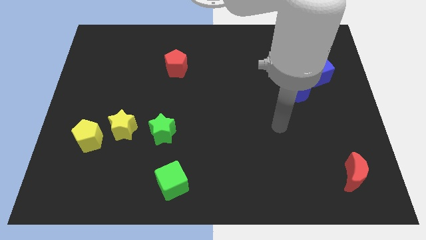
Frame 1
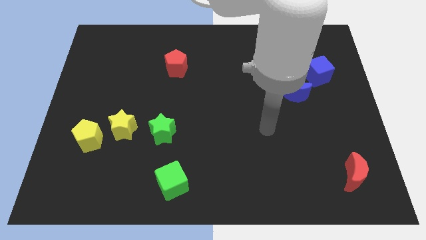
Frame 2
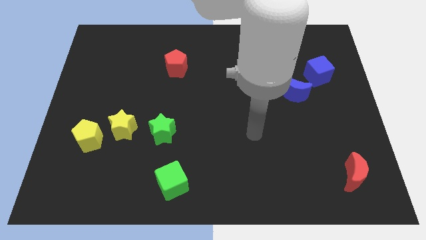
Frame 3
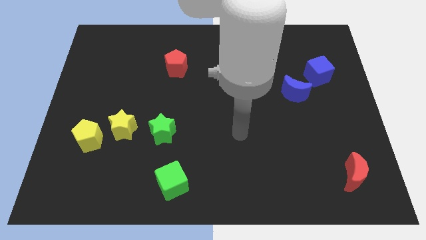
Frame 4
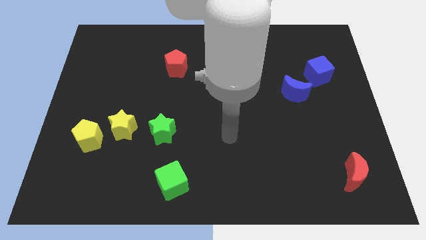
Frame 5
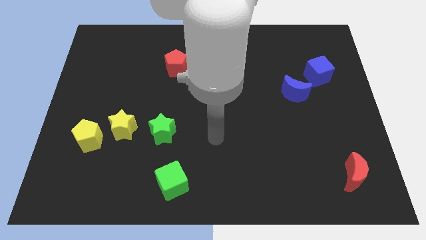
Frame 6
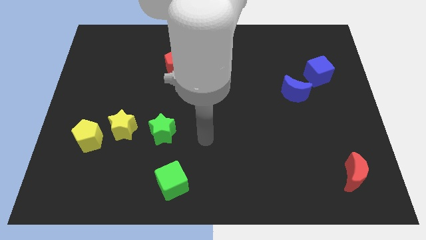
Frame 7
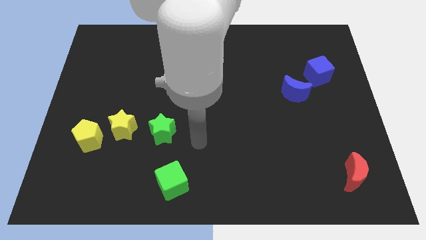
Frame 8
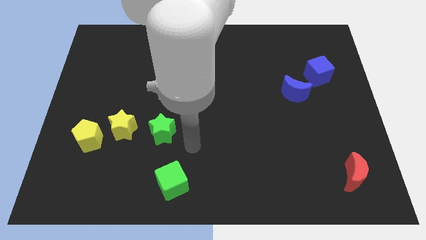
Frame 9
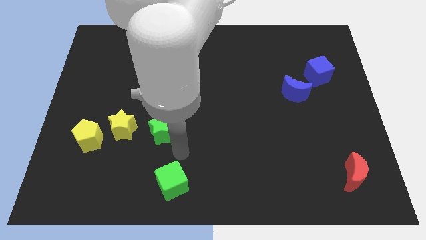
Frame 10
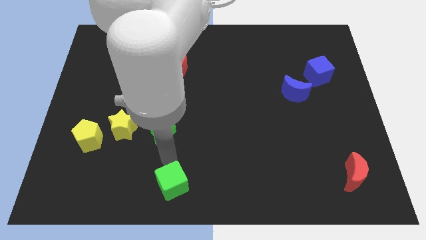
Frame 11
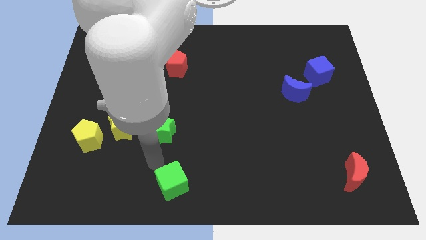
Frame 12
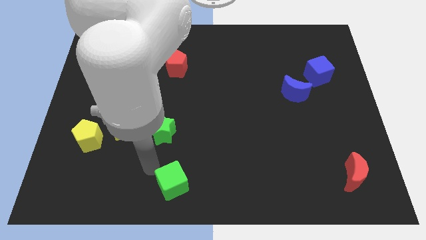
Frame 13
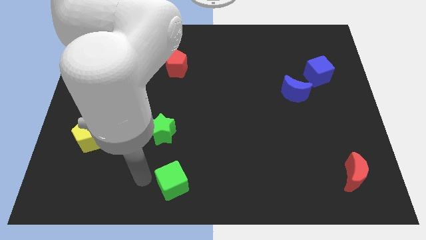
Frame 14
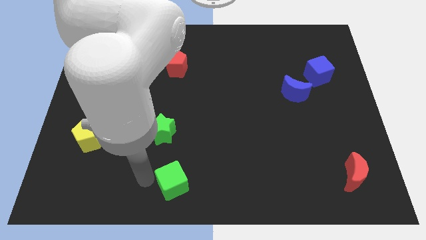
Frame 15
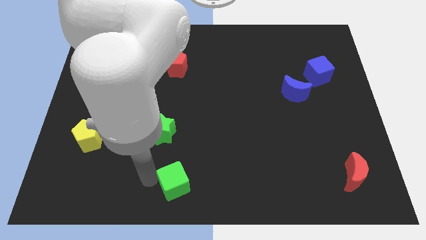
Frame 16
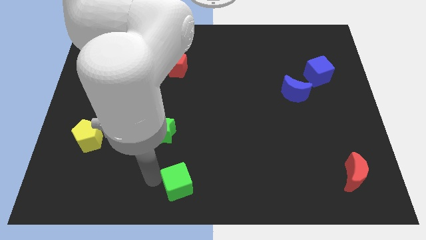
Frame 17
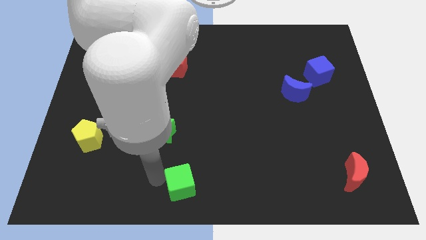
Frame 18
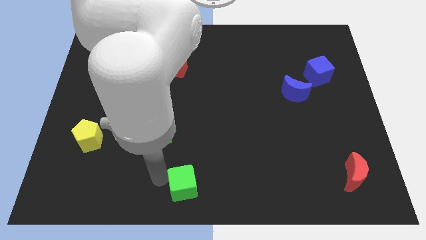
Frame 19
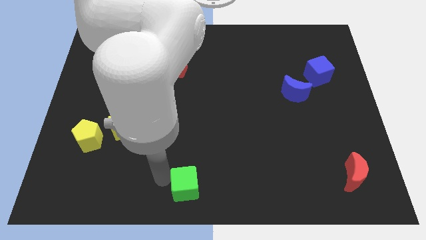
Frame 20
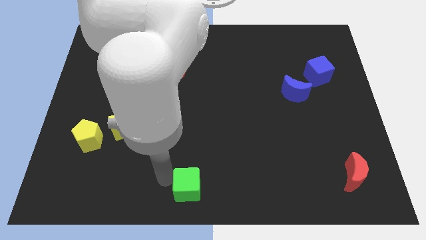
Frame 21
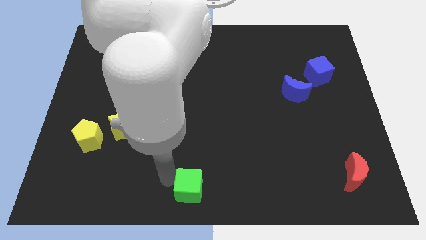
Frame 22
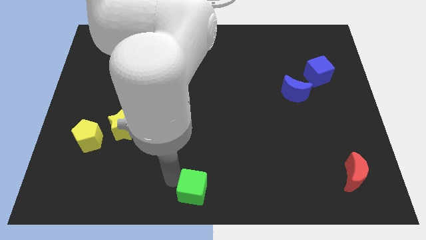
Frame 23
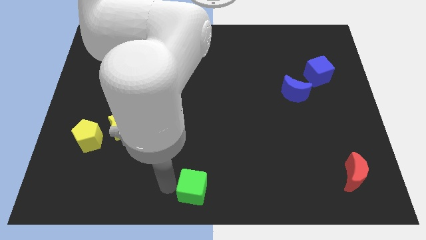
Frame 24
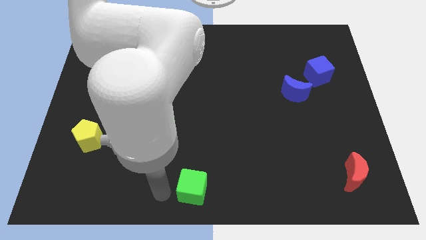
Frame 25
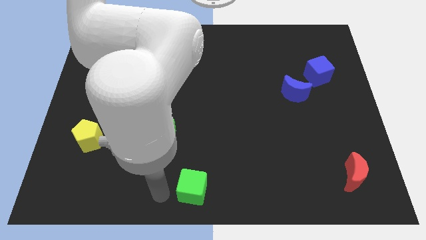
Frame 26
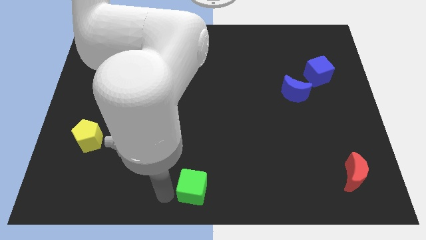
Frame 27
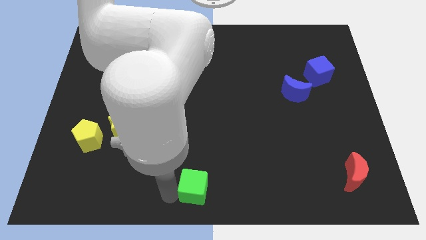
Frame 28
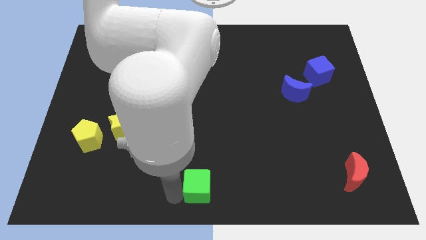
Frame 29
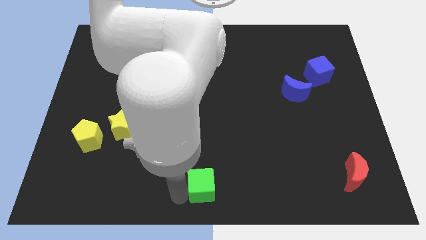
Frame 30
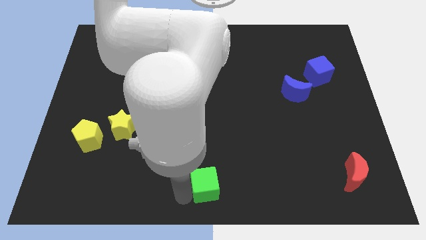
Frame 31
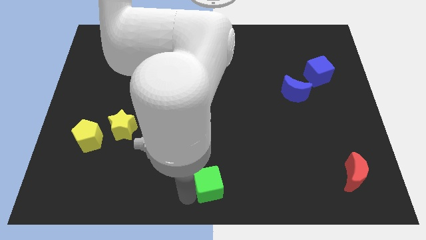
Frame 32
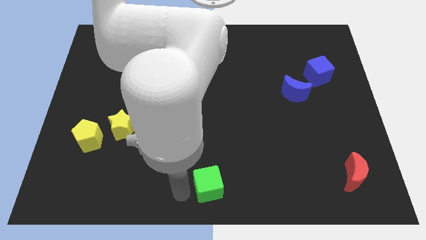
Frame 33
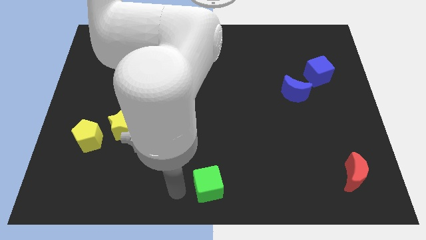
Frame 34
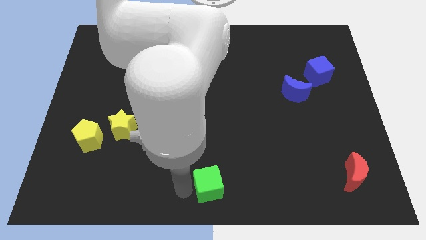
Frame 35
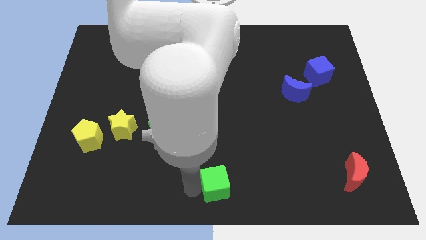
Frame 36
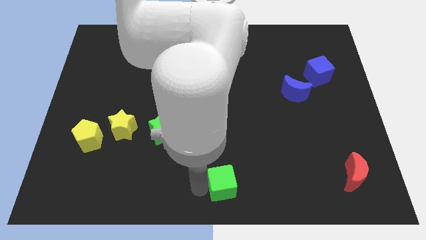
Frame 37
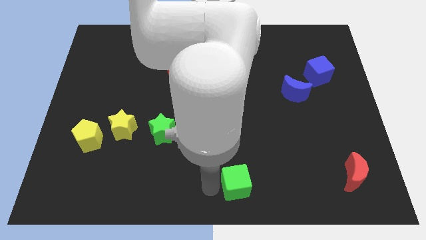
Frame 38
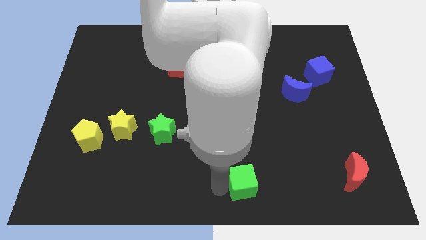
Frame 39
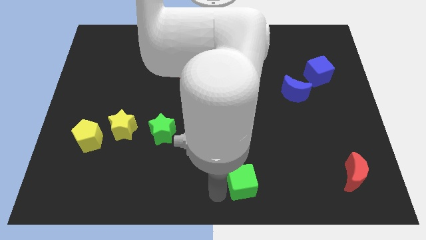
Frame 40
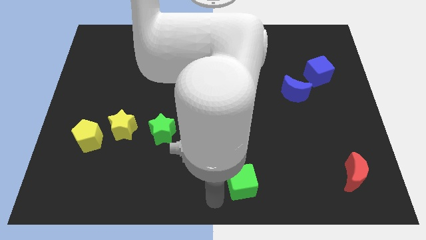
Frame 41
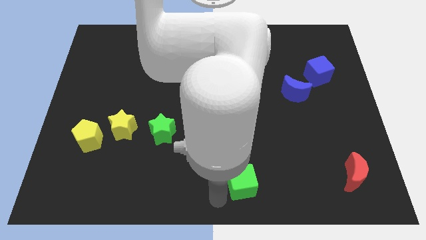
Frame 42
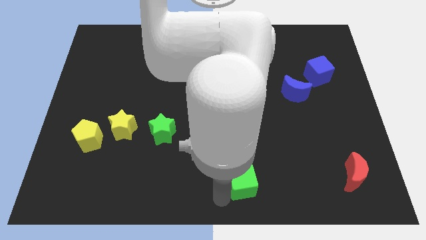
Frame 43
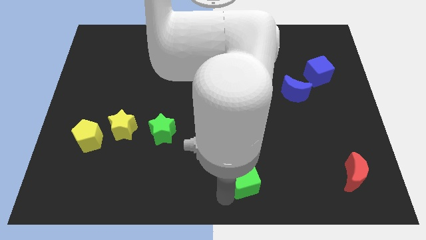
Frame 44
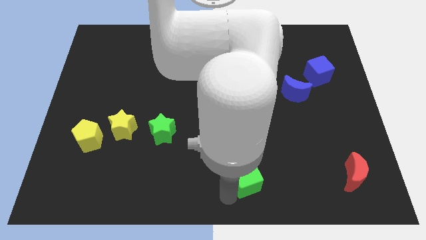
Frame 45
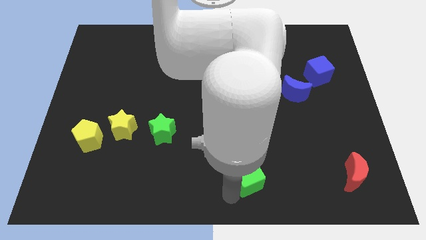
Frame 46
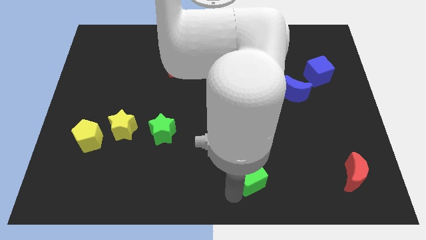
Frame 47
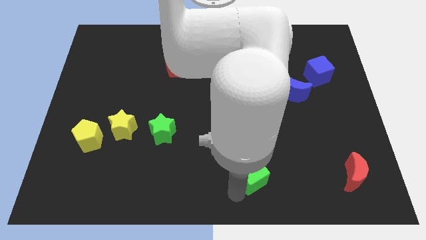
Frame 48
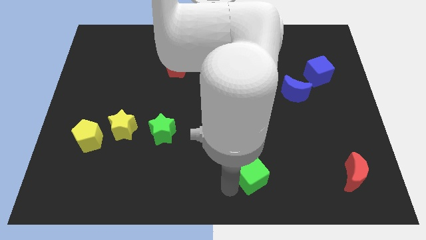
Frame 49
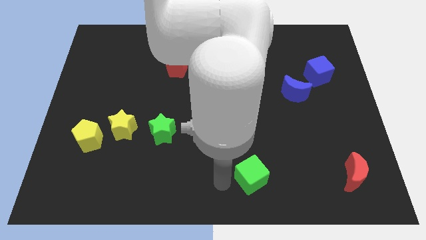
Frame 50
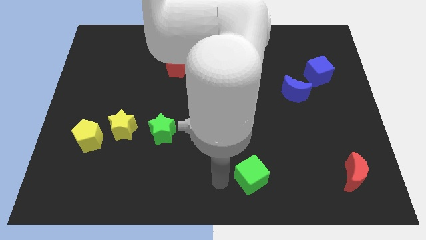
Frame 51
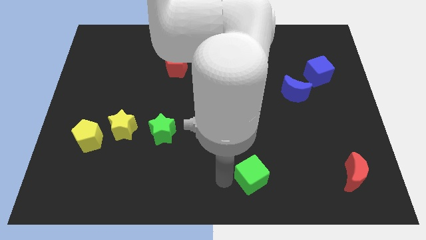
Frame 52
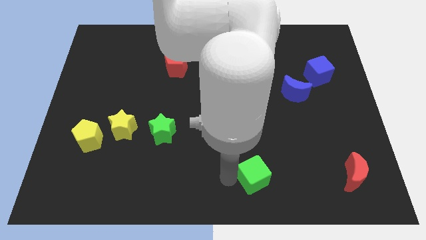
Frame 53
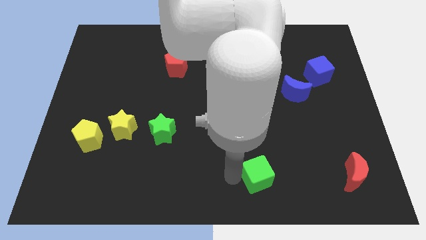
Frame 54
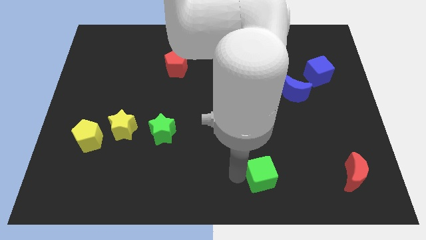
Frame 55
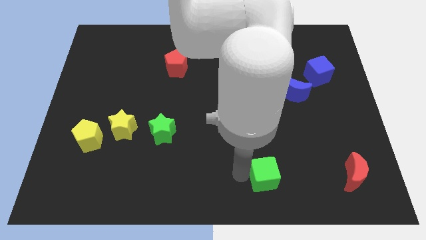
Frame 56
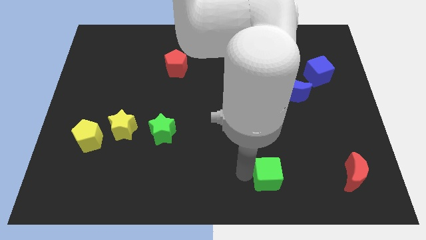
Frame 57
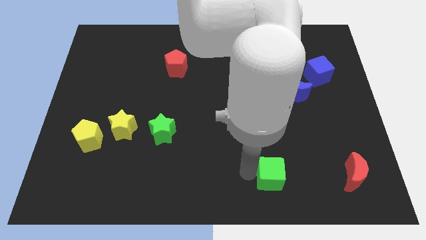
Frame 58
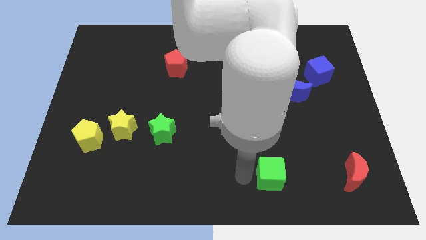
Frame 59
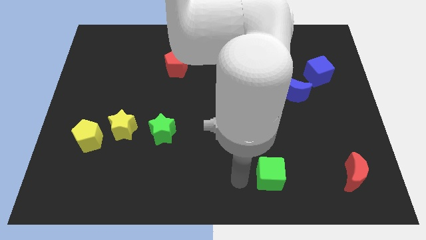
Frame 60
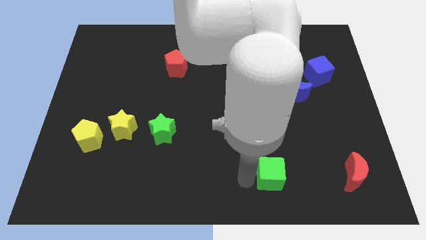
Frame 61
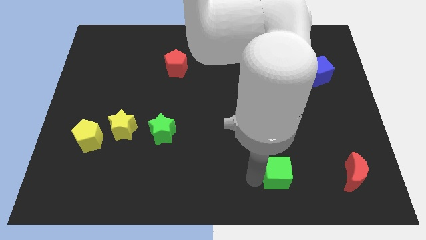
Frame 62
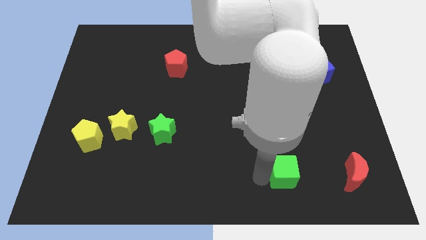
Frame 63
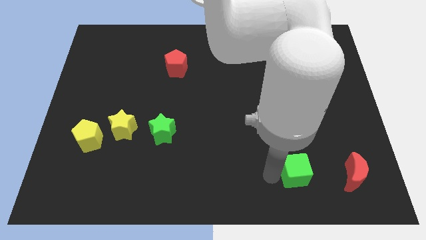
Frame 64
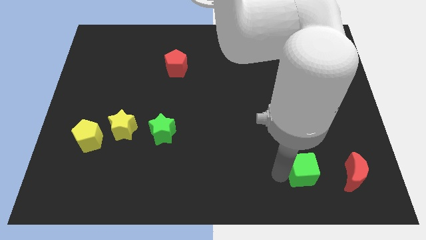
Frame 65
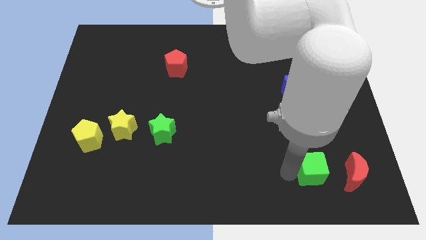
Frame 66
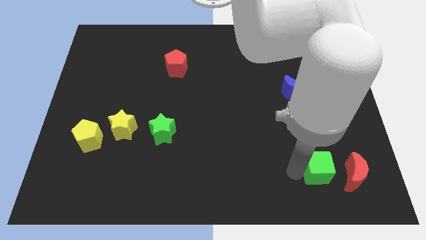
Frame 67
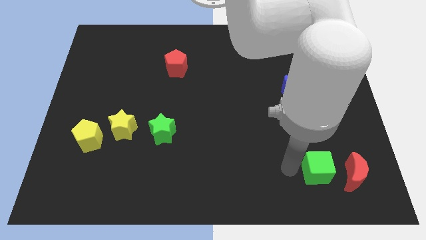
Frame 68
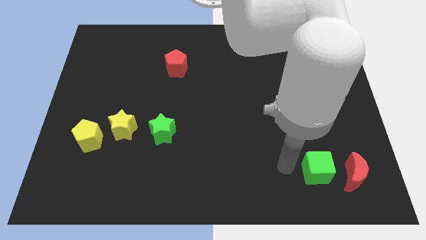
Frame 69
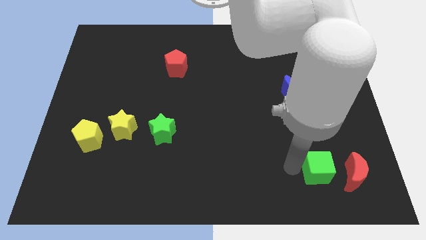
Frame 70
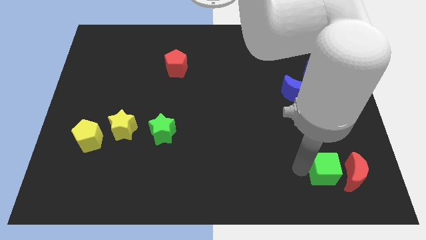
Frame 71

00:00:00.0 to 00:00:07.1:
slide the green cube close to the red moon
